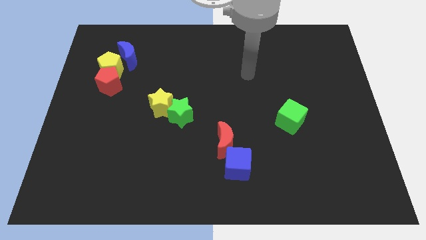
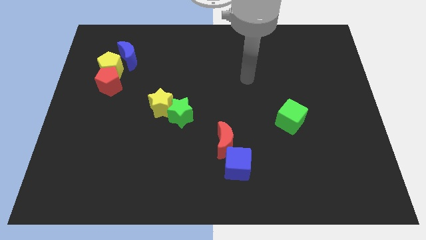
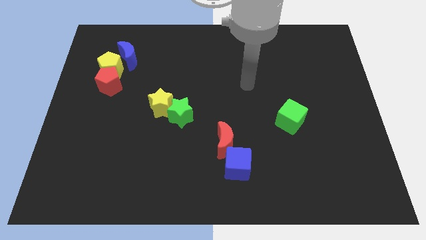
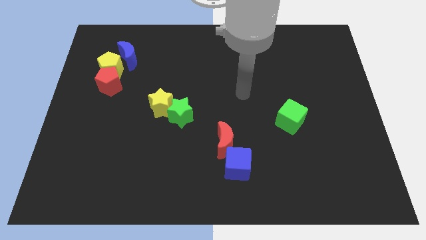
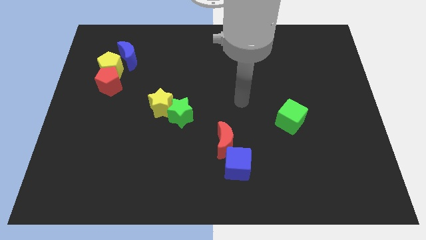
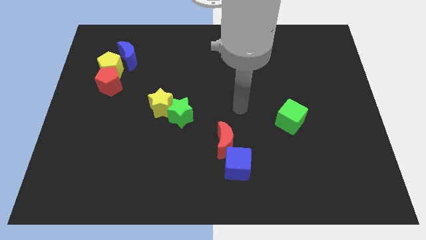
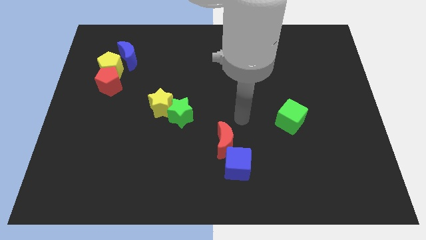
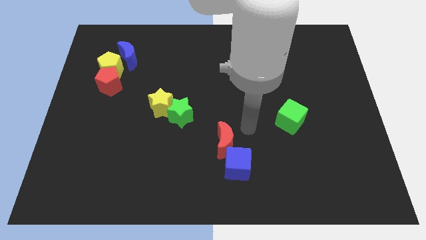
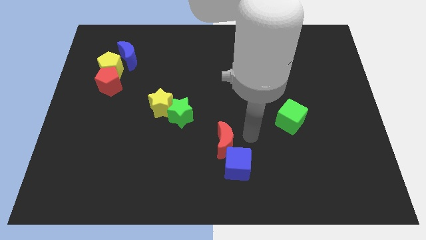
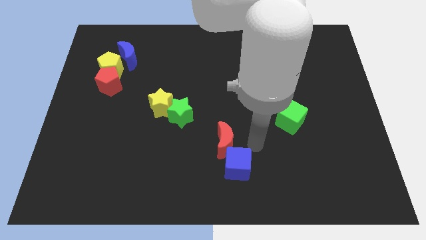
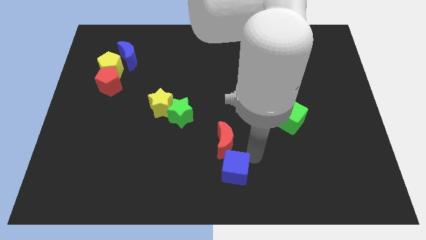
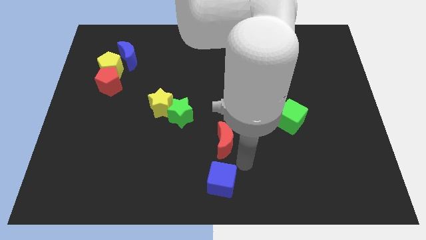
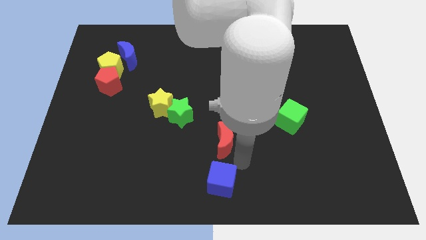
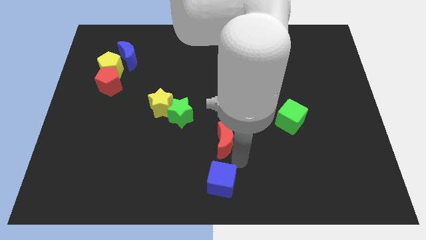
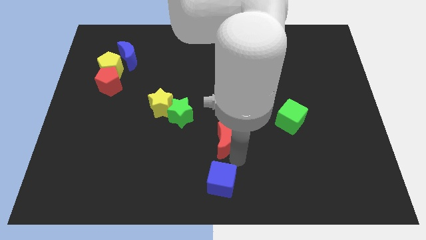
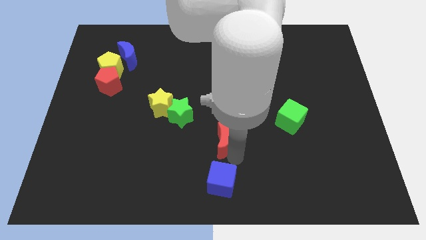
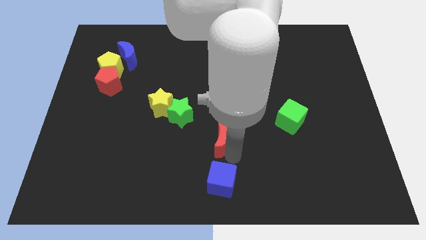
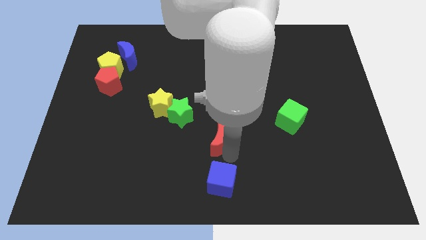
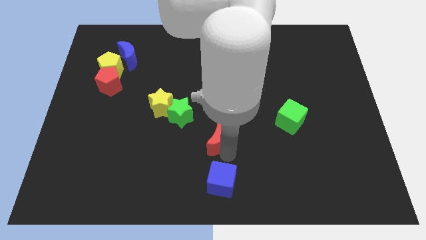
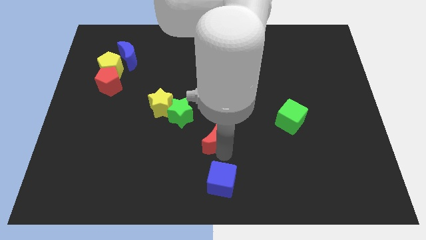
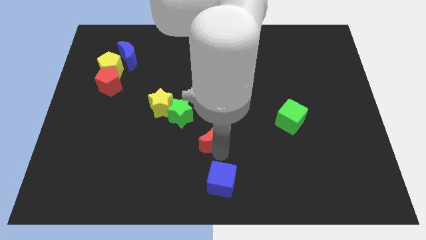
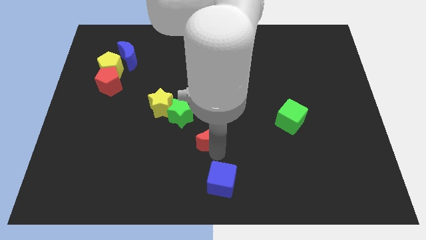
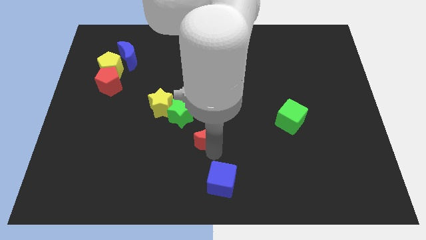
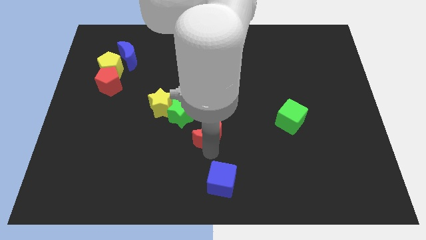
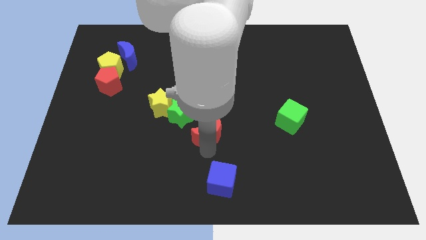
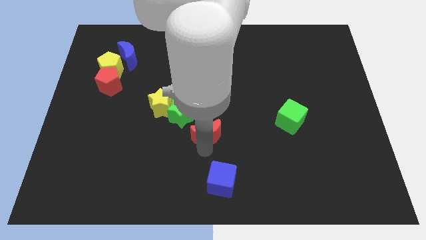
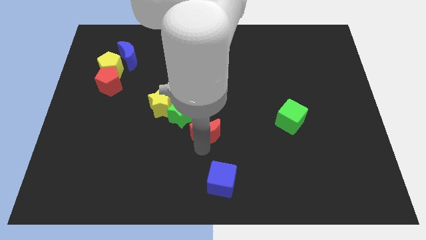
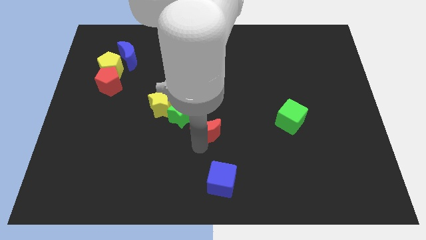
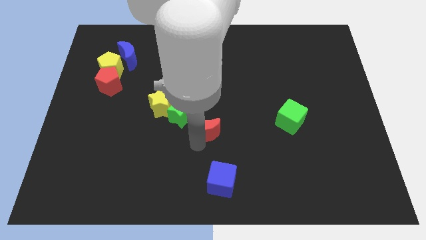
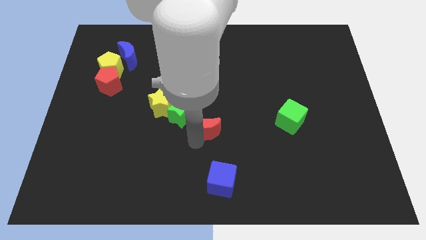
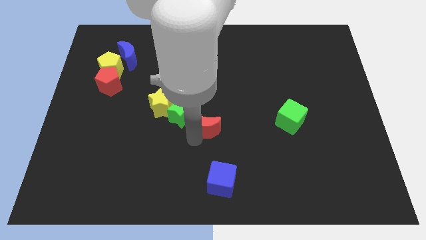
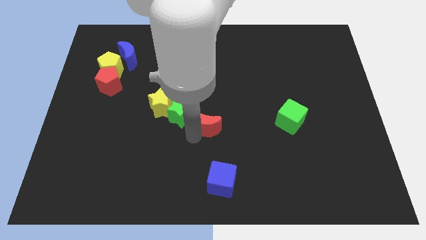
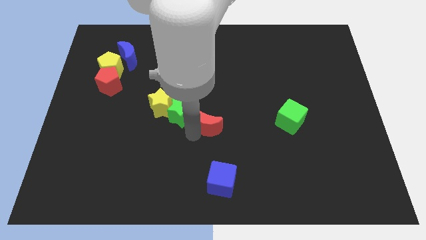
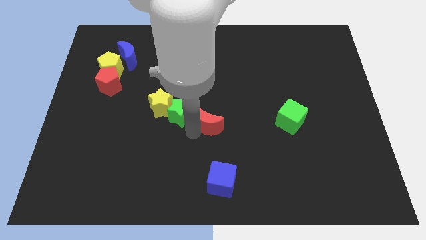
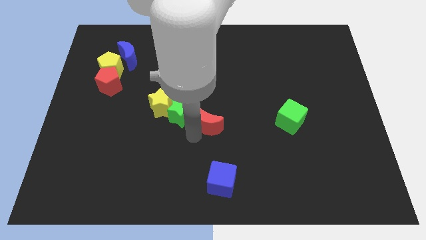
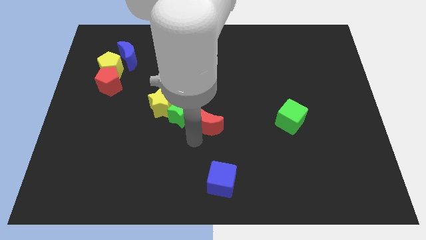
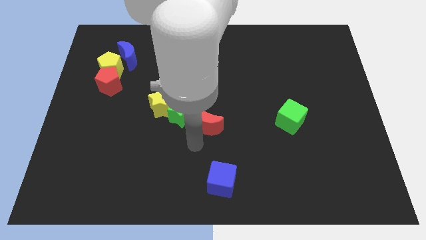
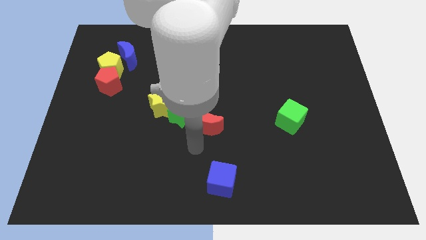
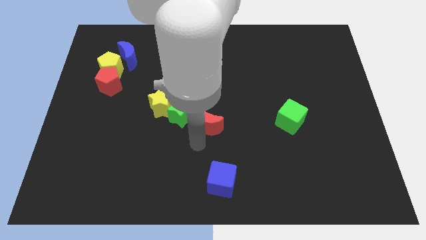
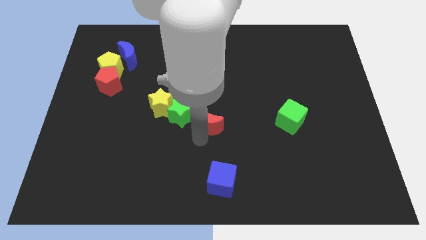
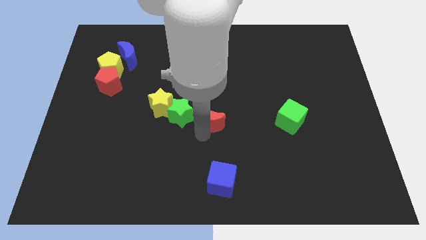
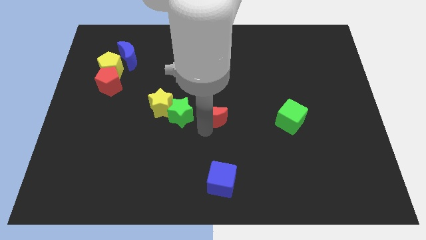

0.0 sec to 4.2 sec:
move the red moon somewhat up and then to the left

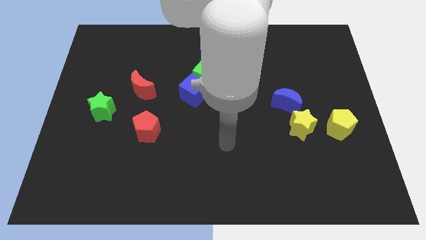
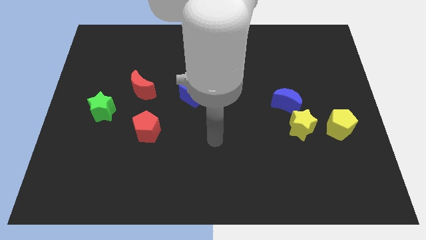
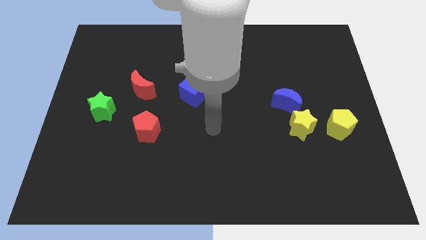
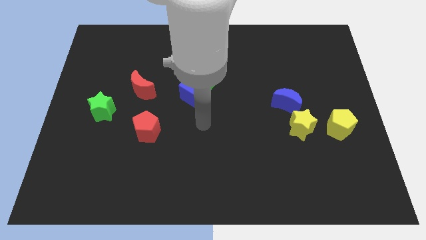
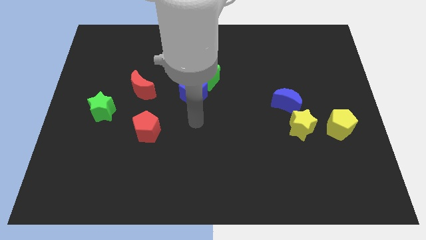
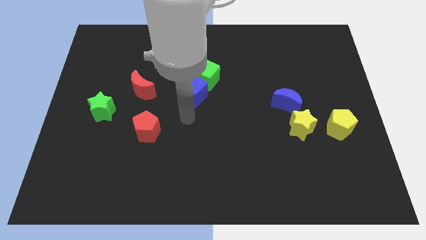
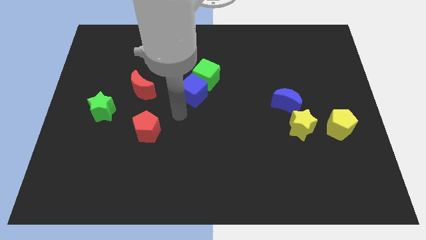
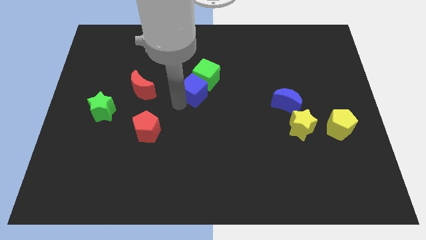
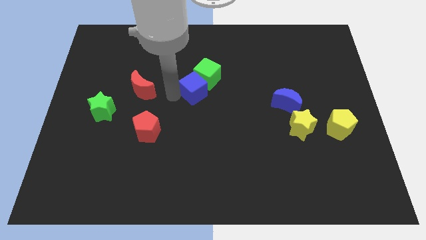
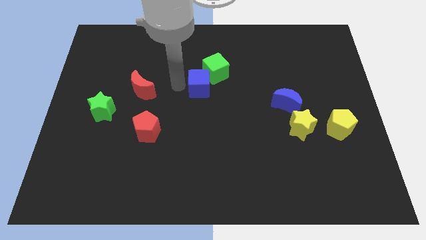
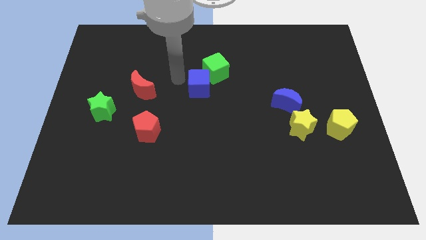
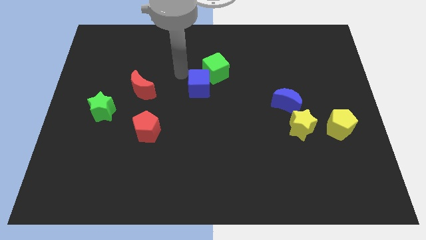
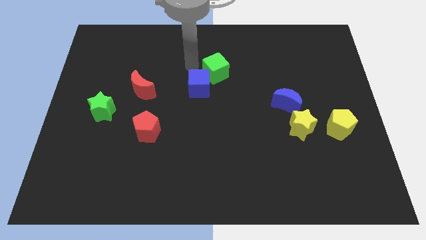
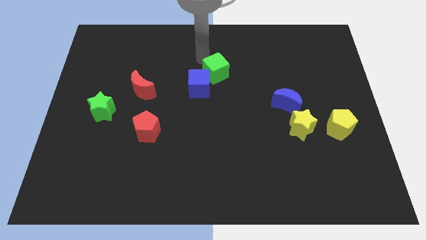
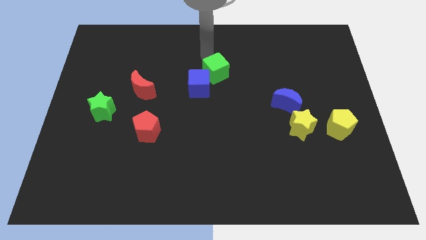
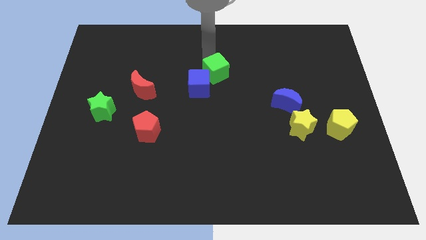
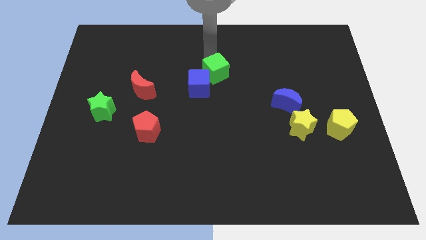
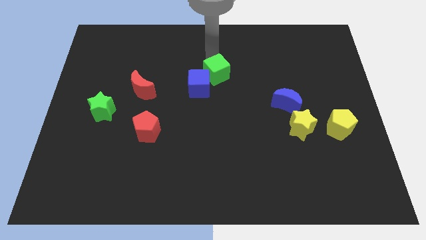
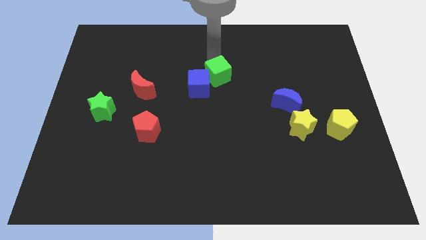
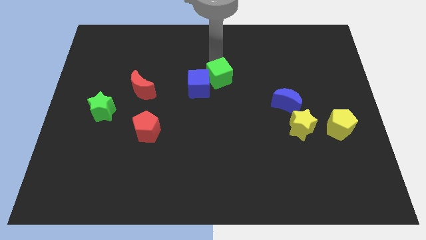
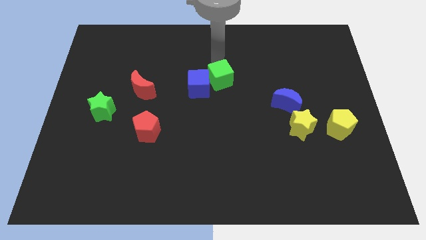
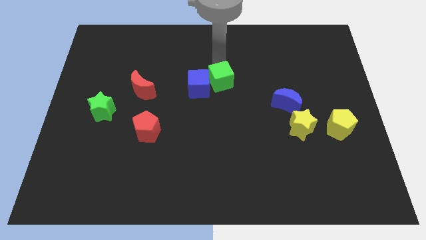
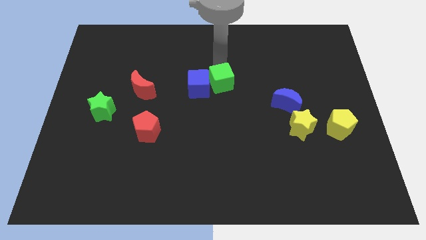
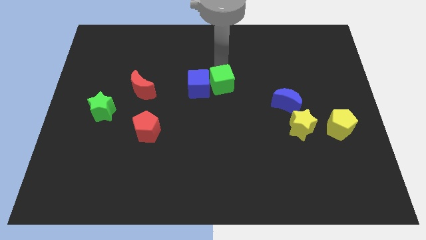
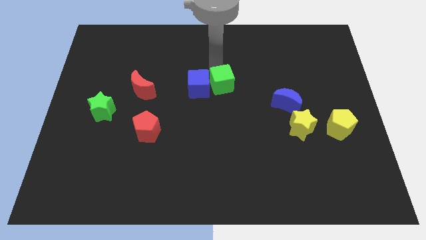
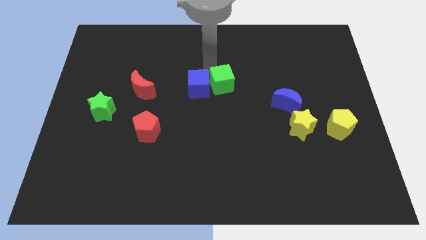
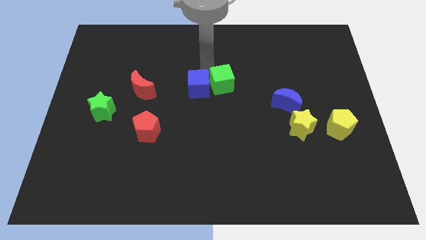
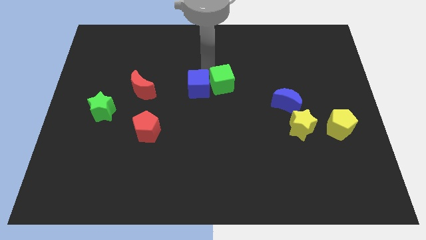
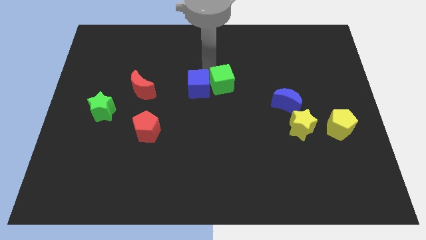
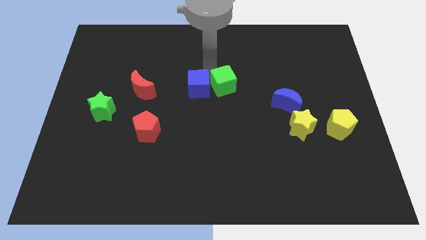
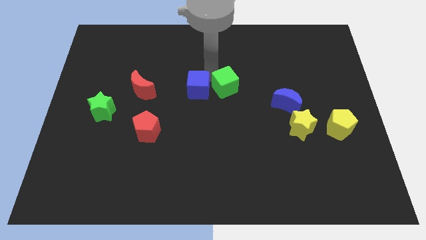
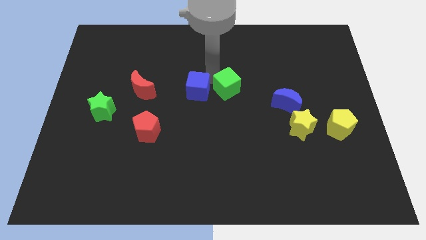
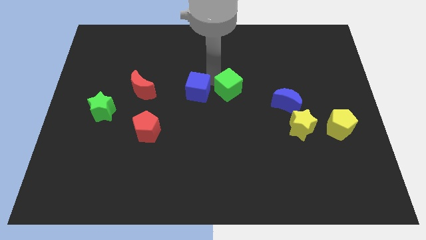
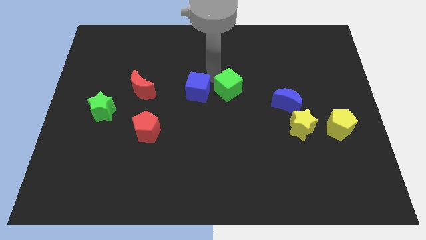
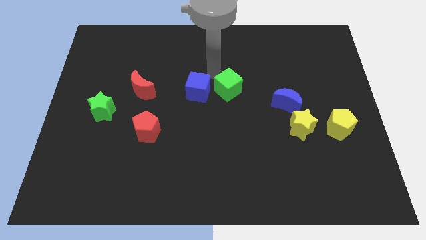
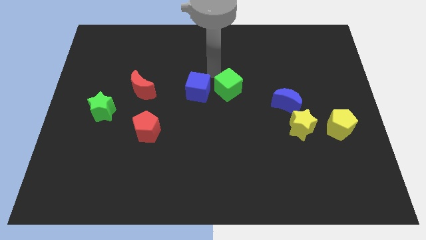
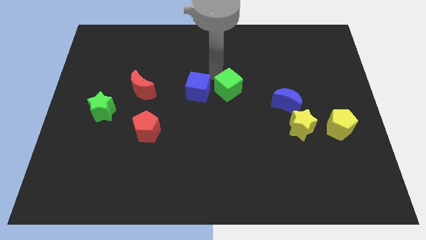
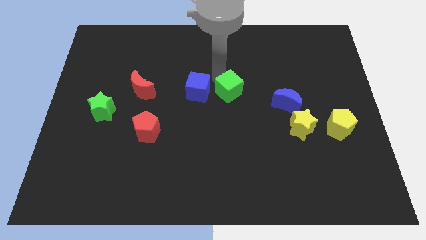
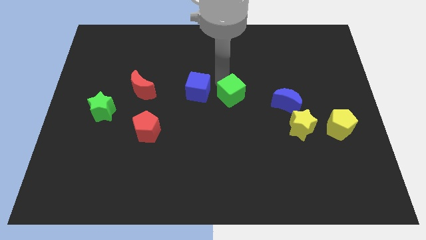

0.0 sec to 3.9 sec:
push the green cube slightly diagonally downwards and to the right
